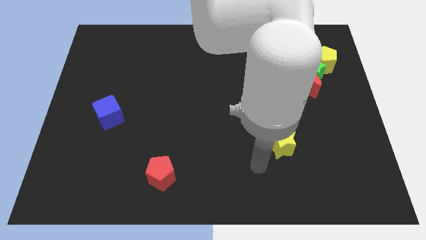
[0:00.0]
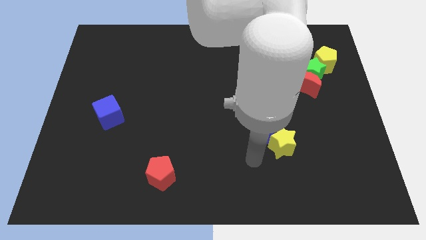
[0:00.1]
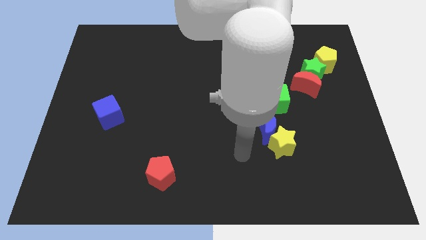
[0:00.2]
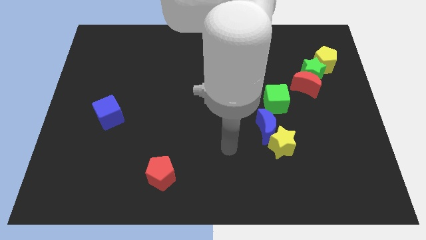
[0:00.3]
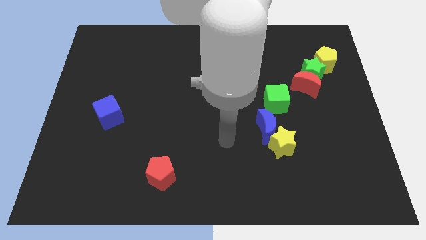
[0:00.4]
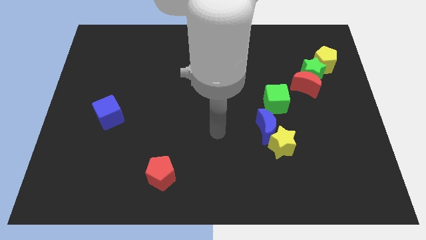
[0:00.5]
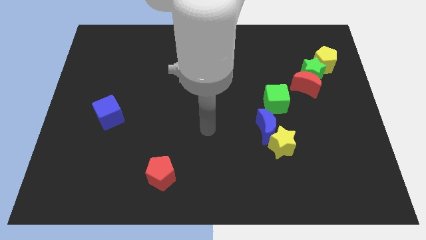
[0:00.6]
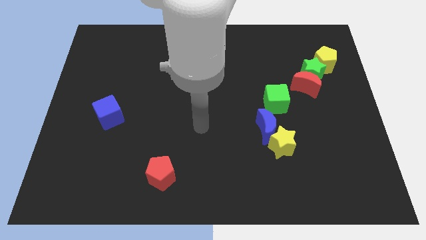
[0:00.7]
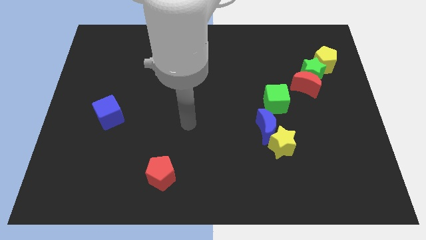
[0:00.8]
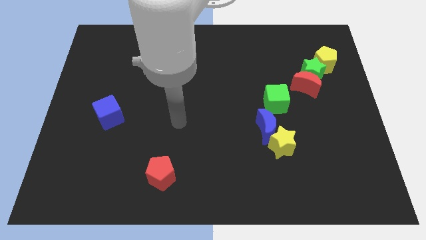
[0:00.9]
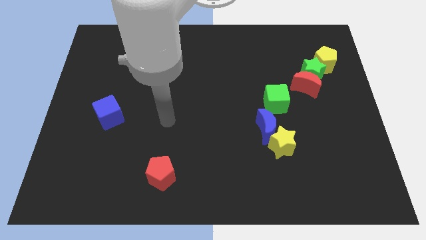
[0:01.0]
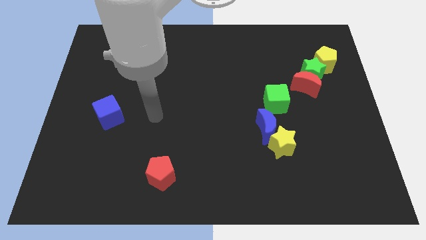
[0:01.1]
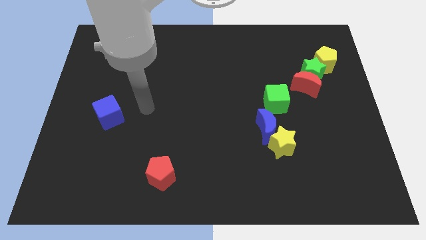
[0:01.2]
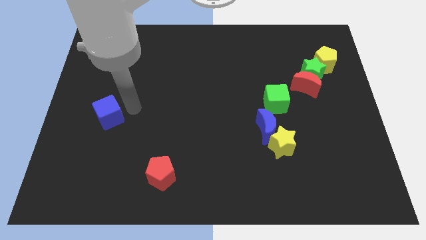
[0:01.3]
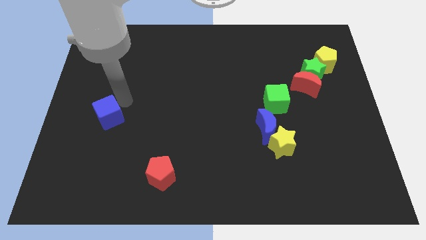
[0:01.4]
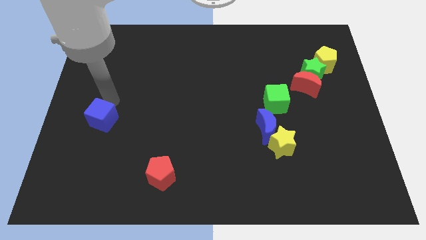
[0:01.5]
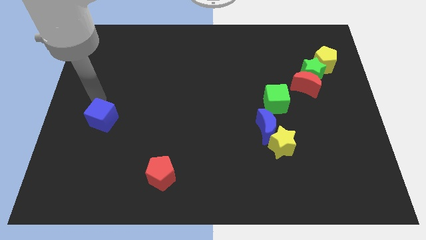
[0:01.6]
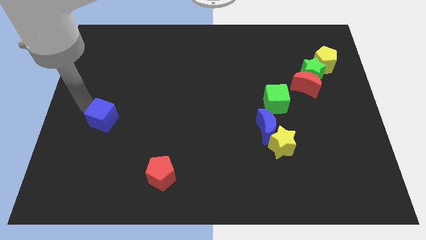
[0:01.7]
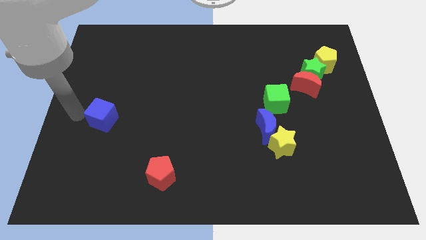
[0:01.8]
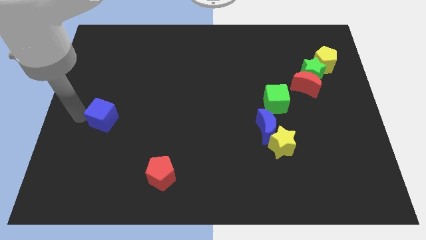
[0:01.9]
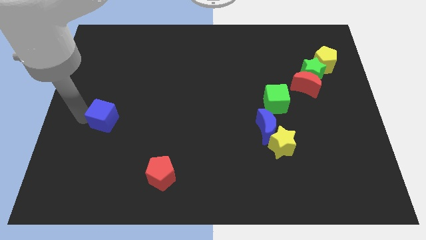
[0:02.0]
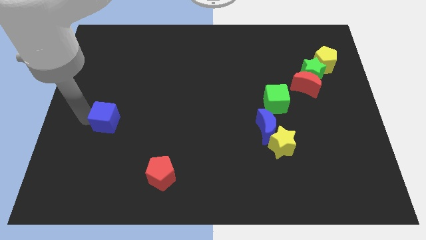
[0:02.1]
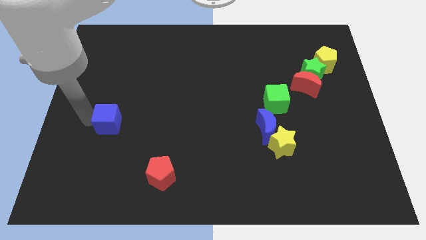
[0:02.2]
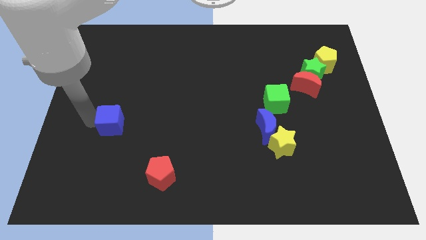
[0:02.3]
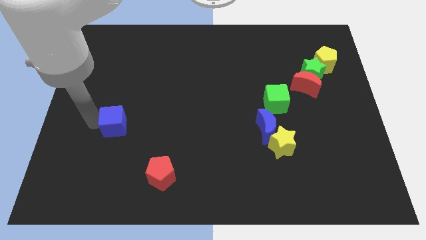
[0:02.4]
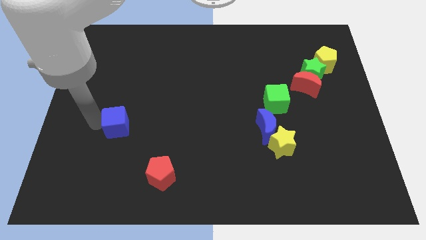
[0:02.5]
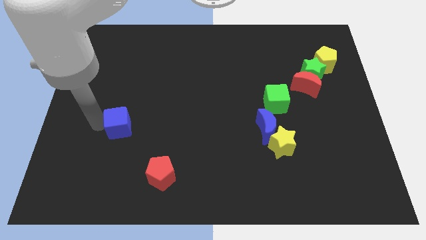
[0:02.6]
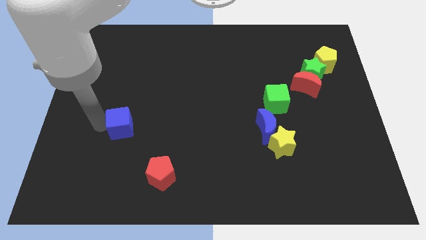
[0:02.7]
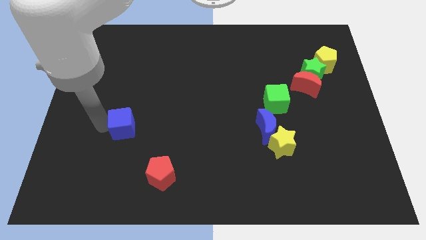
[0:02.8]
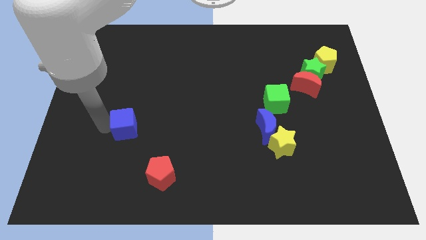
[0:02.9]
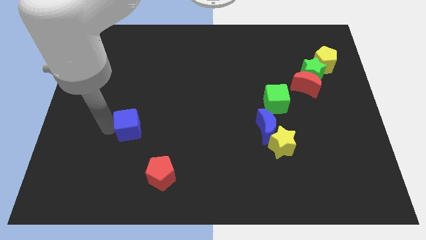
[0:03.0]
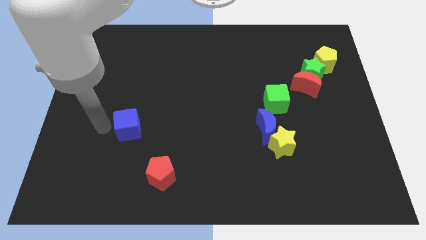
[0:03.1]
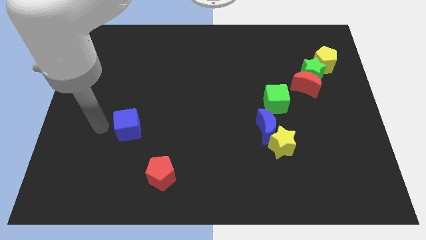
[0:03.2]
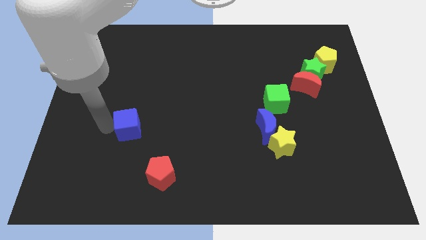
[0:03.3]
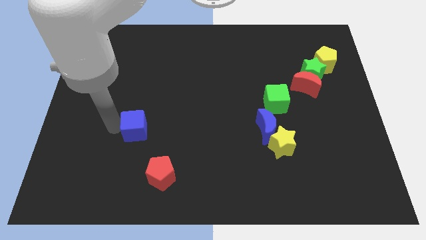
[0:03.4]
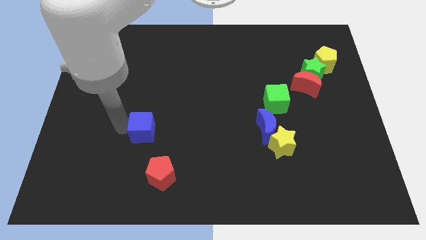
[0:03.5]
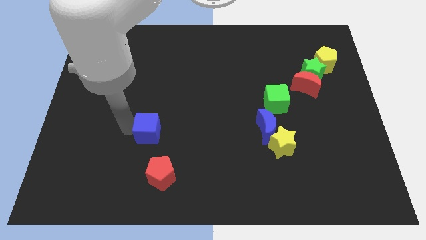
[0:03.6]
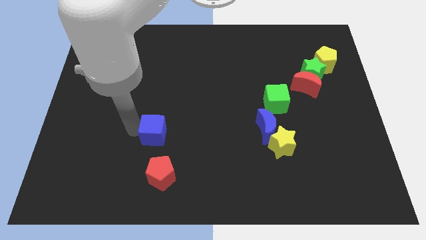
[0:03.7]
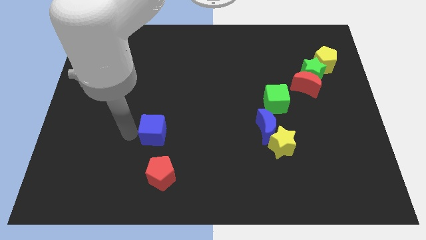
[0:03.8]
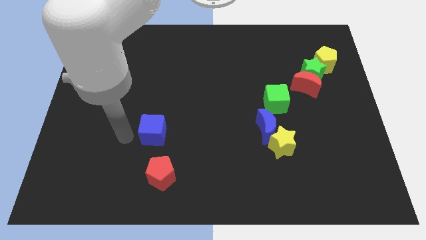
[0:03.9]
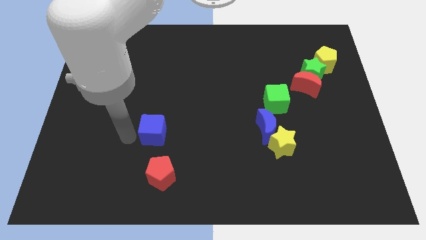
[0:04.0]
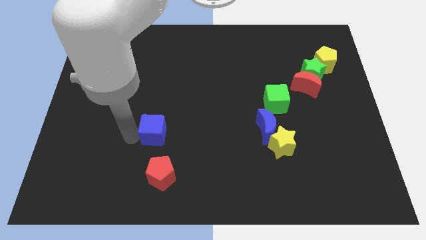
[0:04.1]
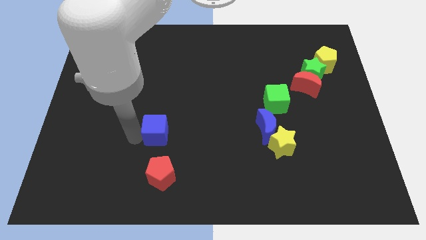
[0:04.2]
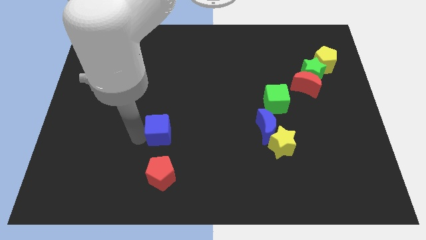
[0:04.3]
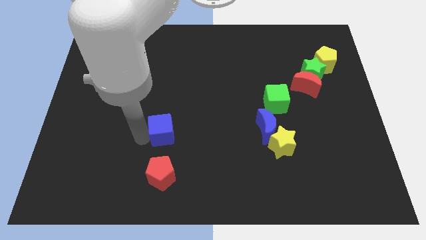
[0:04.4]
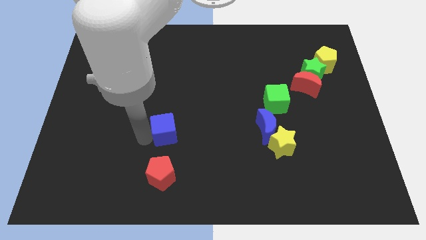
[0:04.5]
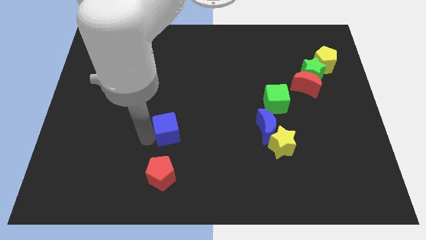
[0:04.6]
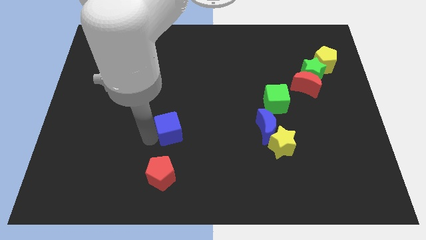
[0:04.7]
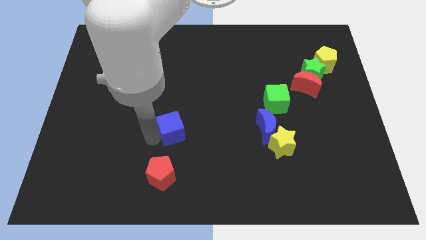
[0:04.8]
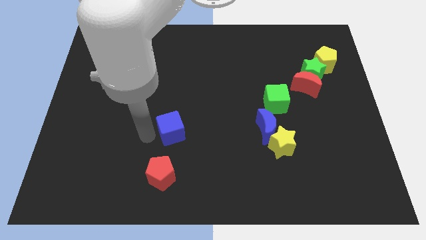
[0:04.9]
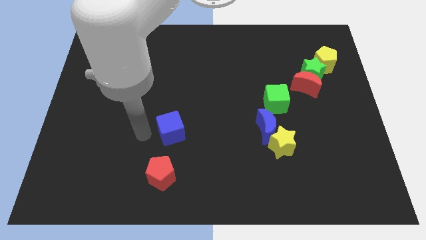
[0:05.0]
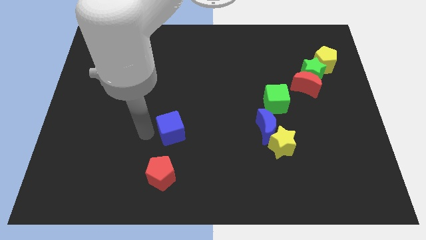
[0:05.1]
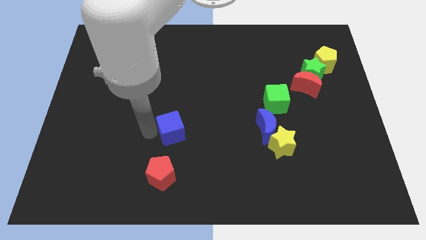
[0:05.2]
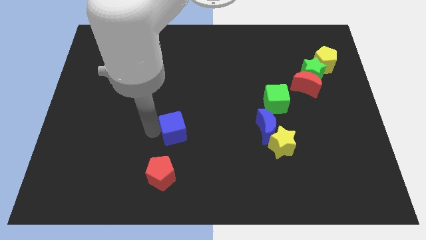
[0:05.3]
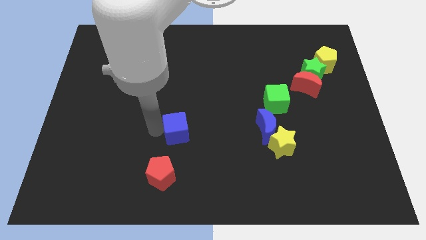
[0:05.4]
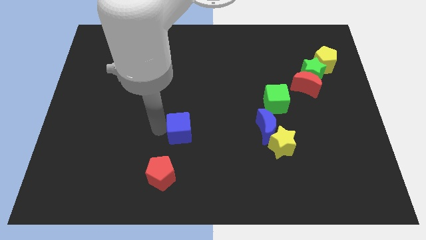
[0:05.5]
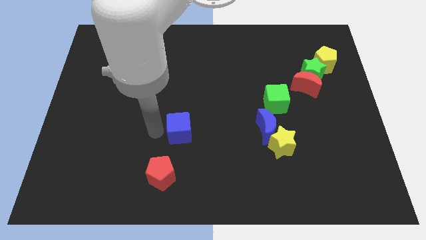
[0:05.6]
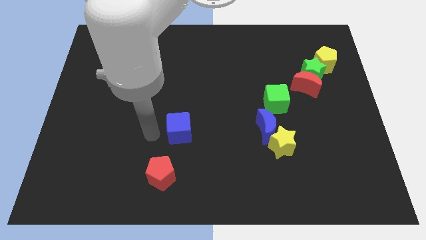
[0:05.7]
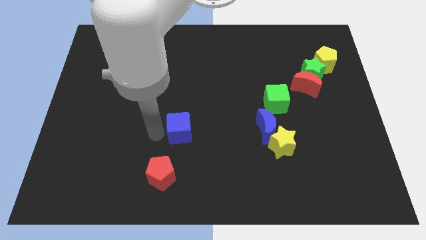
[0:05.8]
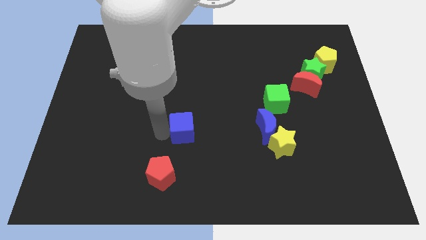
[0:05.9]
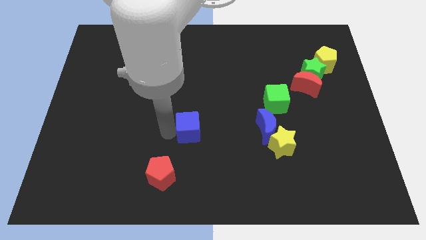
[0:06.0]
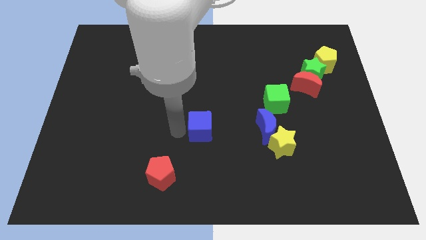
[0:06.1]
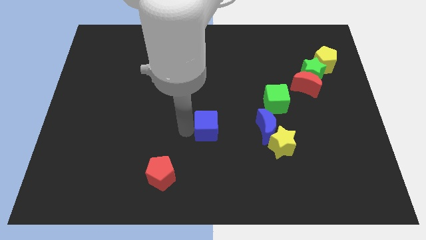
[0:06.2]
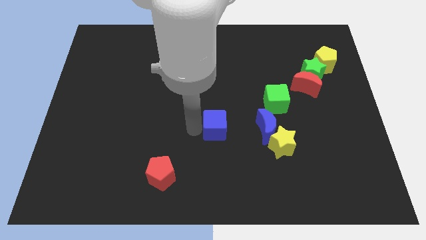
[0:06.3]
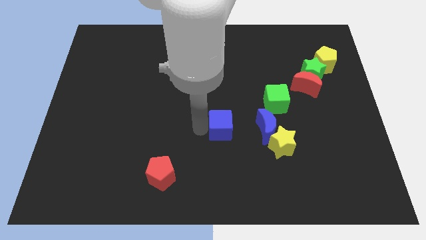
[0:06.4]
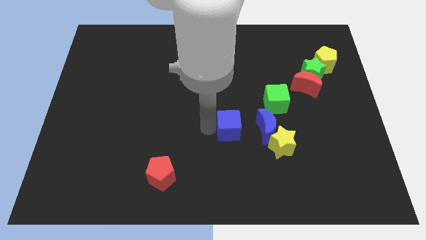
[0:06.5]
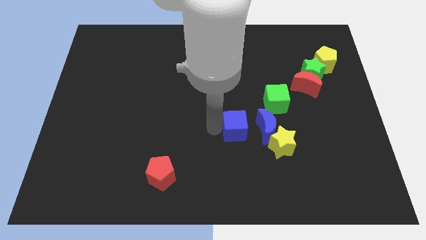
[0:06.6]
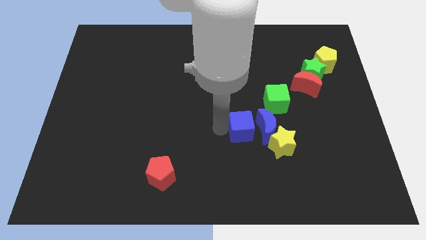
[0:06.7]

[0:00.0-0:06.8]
slide the blue cube next to the blue moon
